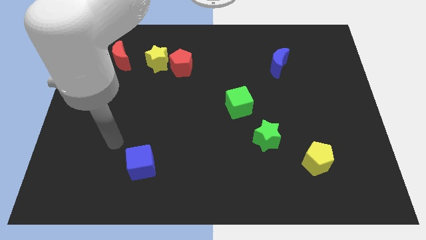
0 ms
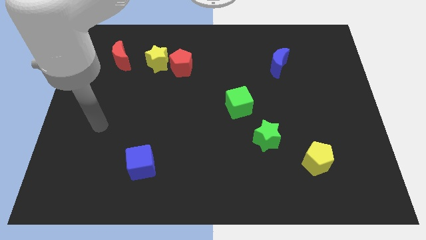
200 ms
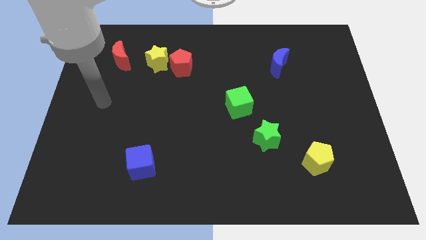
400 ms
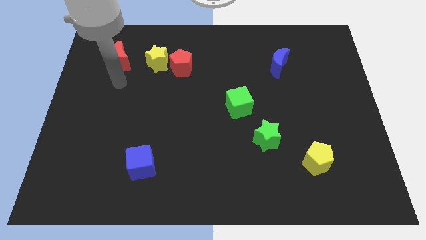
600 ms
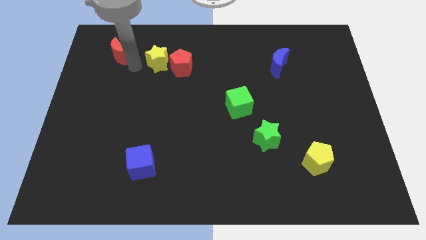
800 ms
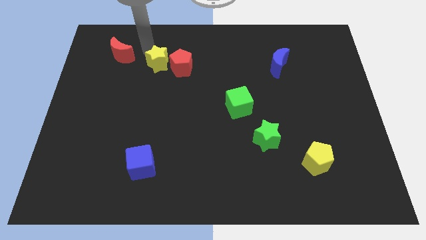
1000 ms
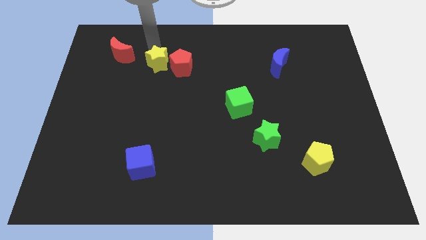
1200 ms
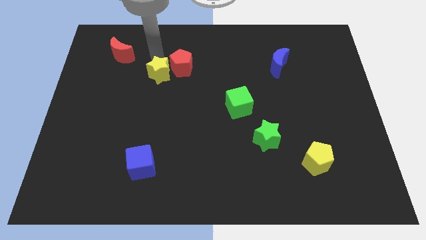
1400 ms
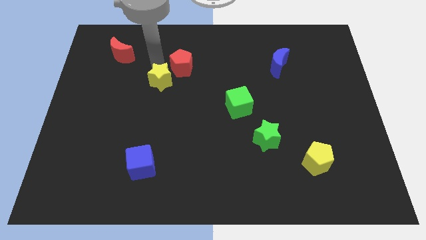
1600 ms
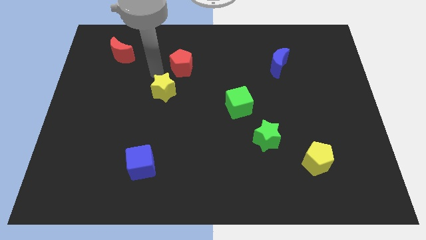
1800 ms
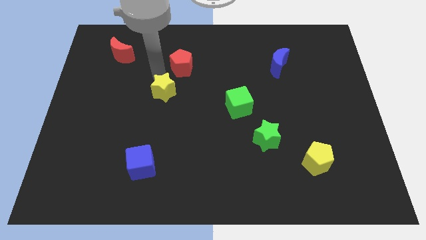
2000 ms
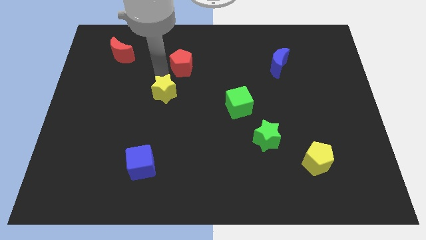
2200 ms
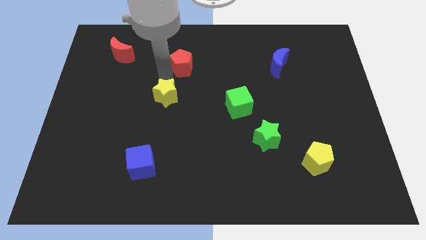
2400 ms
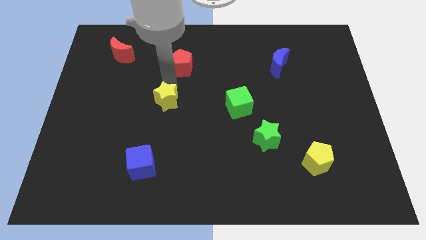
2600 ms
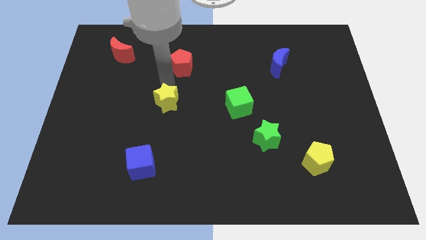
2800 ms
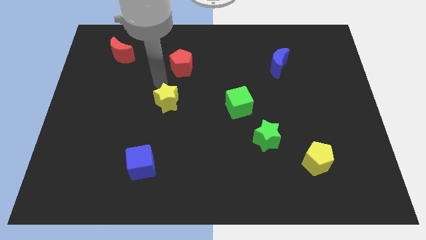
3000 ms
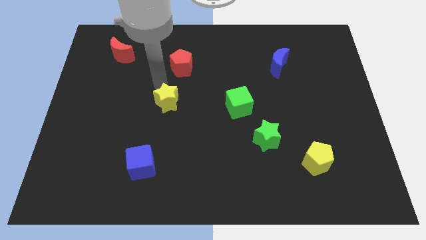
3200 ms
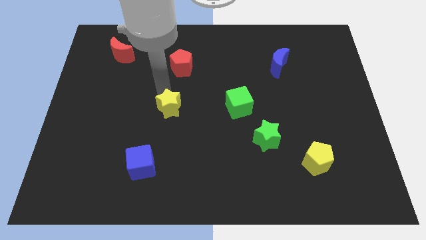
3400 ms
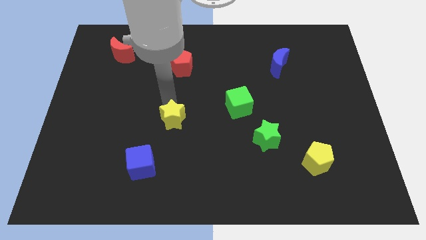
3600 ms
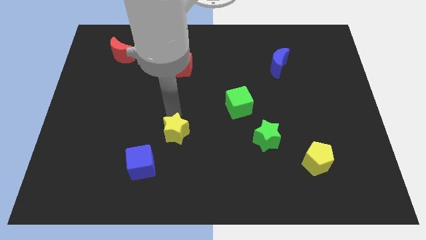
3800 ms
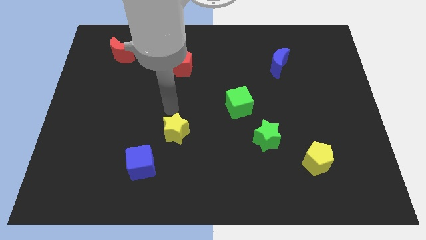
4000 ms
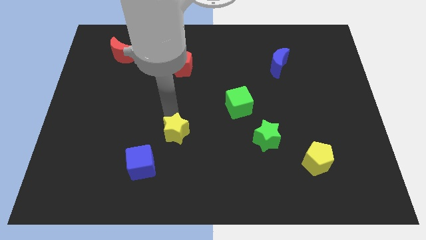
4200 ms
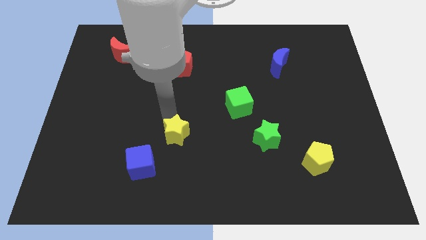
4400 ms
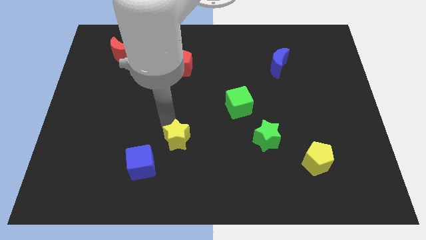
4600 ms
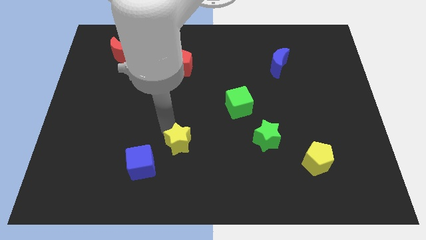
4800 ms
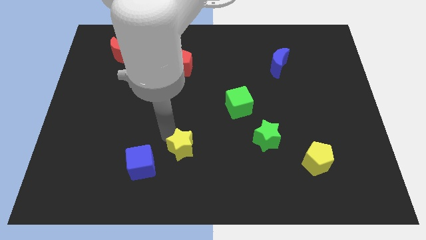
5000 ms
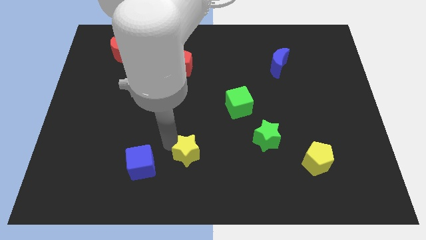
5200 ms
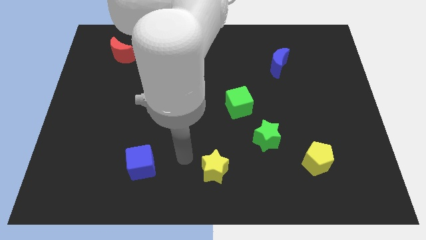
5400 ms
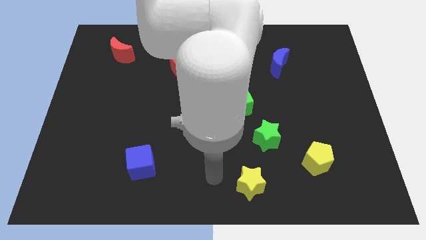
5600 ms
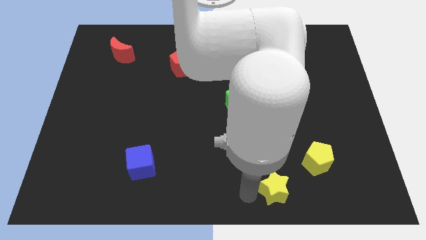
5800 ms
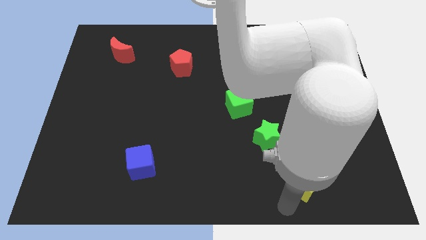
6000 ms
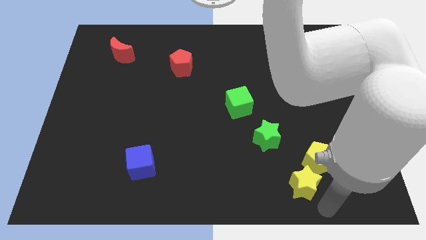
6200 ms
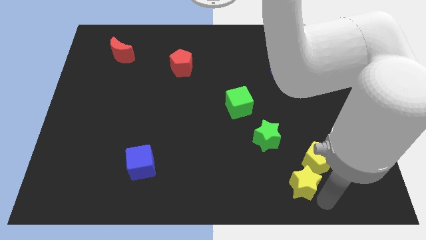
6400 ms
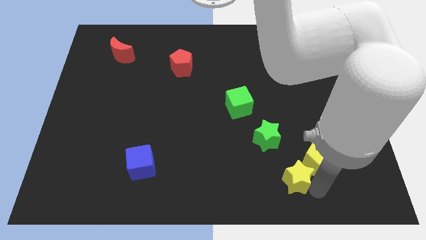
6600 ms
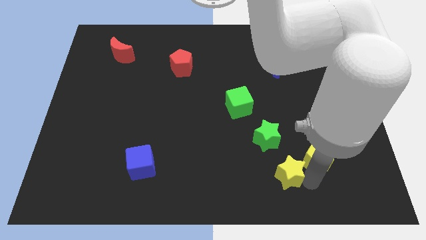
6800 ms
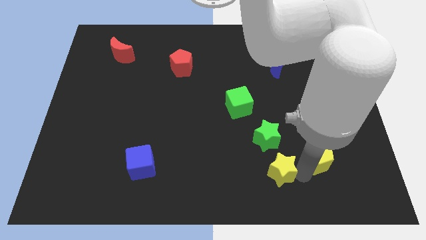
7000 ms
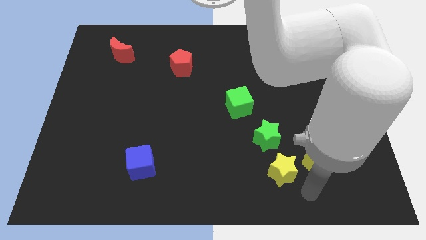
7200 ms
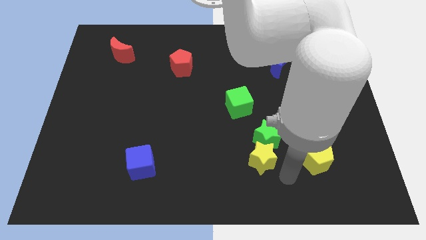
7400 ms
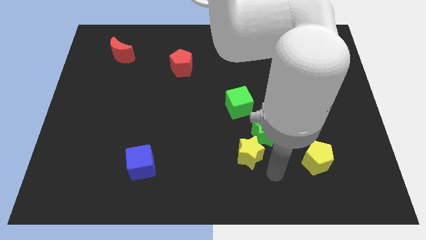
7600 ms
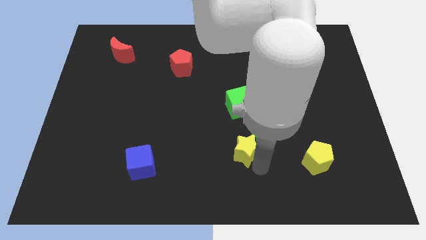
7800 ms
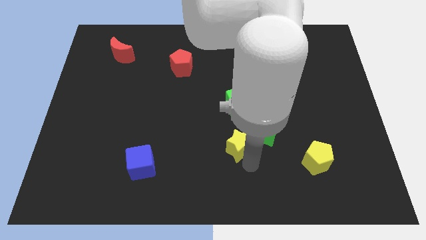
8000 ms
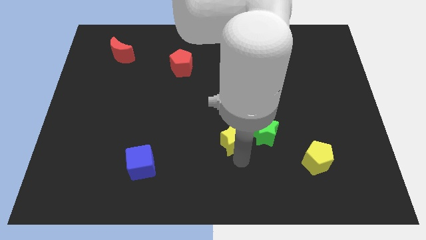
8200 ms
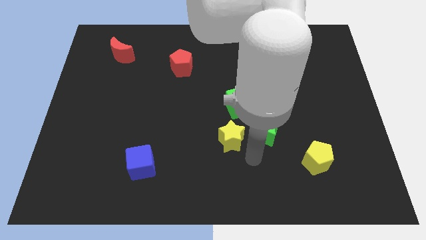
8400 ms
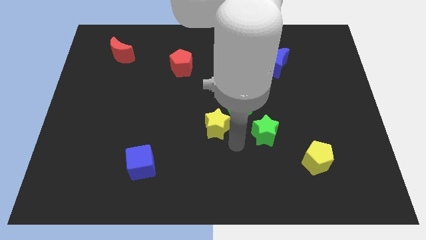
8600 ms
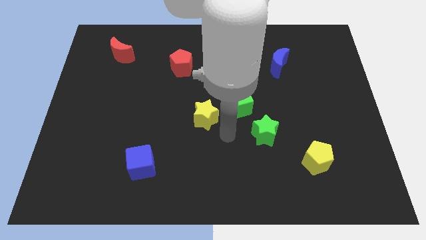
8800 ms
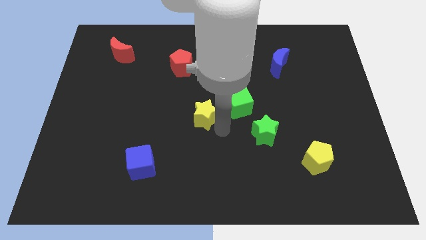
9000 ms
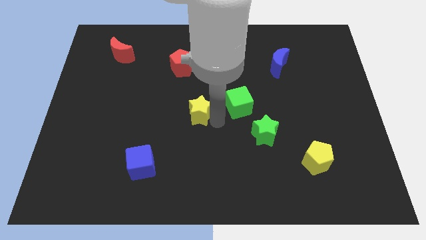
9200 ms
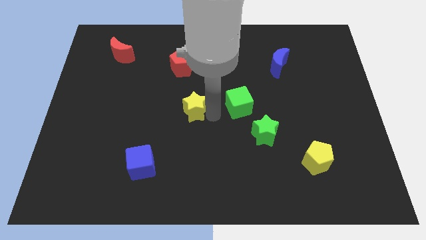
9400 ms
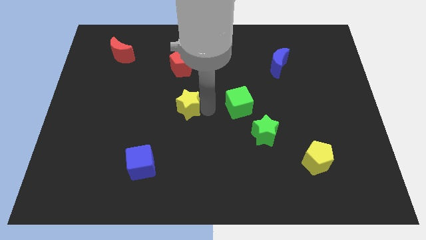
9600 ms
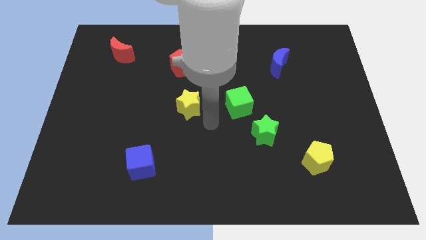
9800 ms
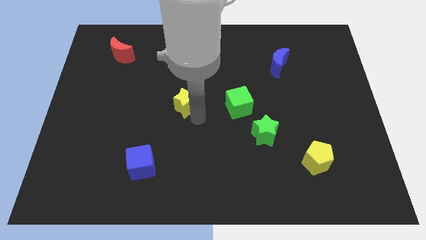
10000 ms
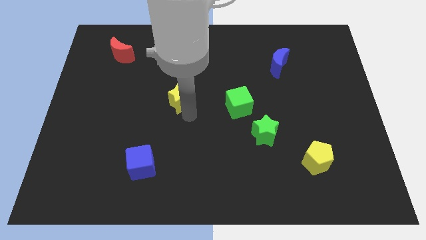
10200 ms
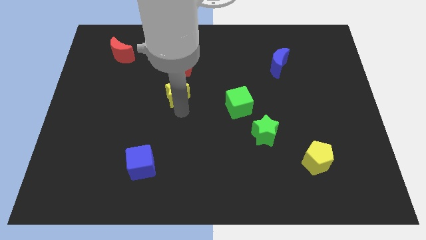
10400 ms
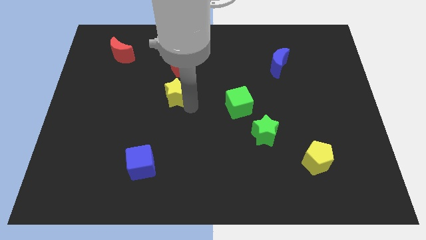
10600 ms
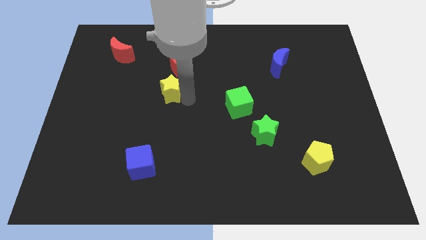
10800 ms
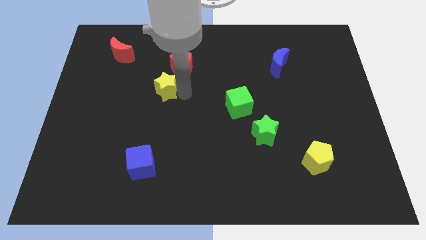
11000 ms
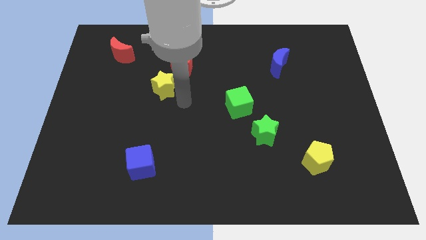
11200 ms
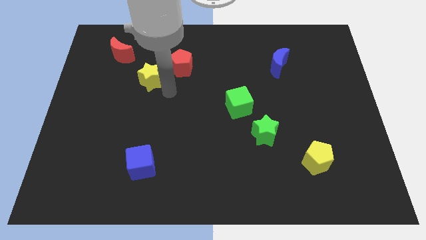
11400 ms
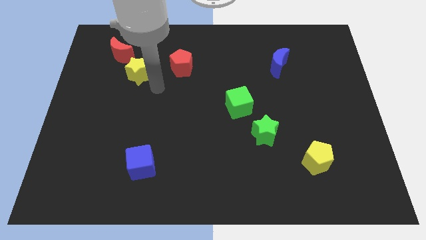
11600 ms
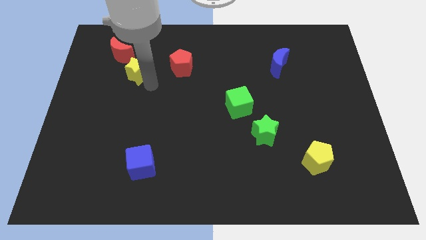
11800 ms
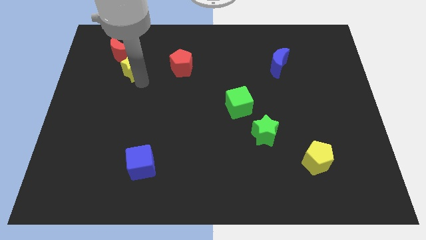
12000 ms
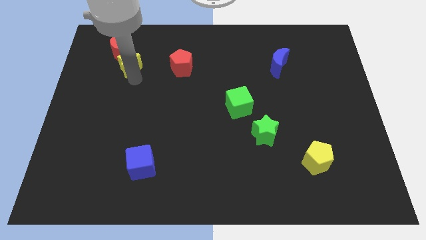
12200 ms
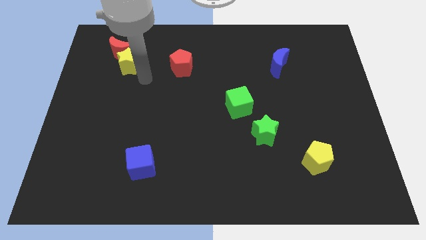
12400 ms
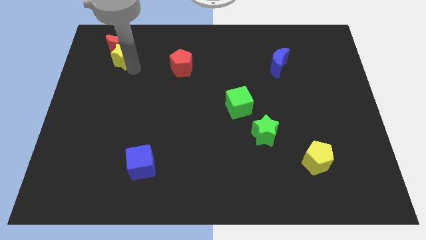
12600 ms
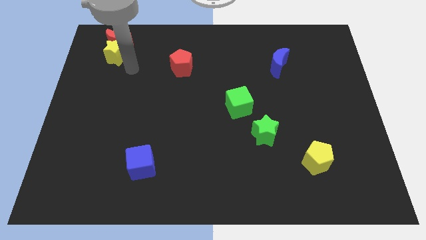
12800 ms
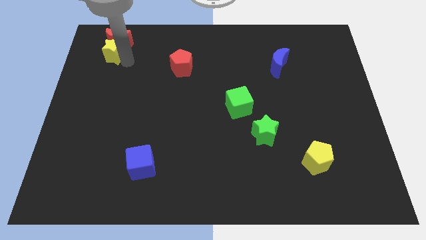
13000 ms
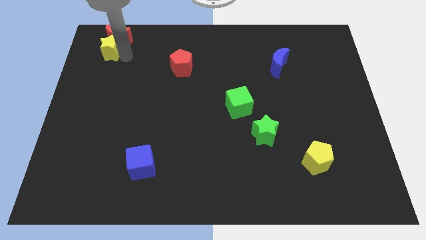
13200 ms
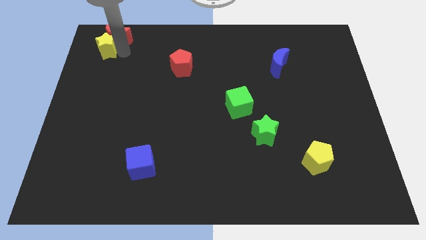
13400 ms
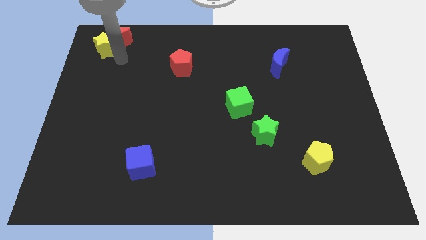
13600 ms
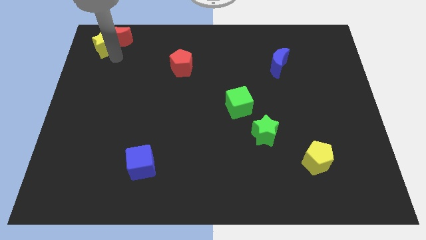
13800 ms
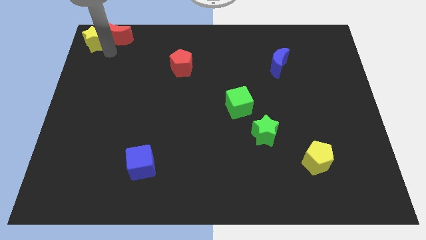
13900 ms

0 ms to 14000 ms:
push the yellow star to the top left

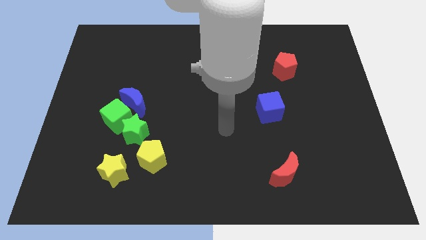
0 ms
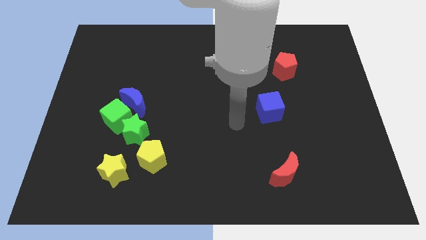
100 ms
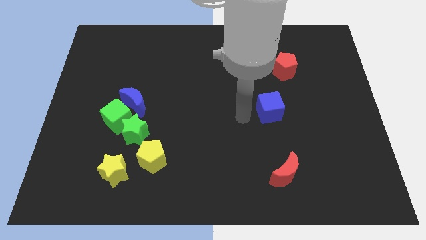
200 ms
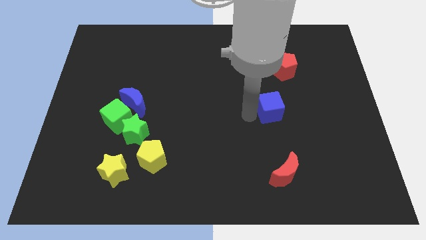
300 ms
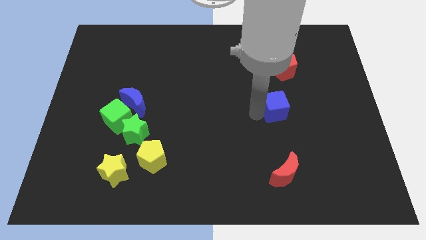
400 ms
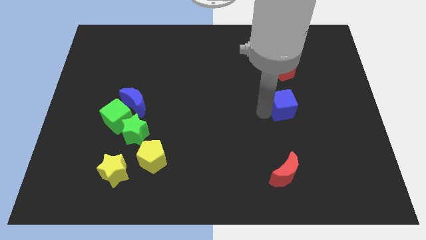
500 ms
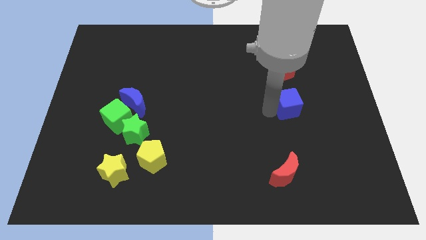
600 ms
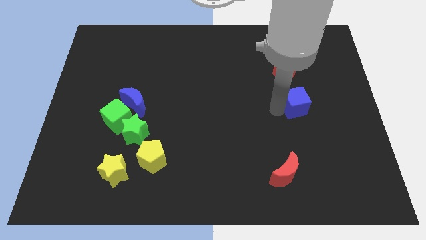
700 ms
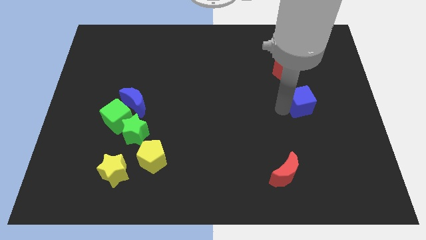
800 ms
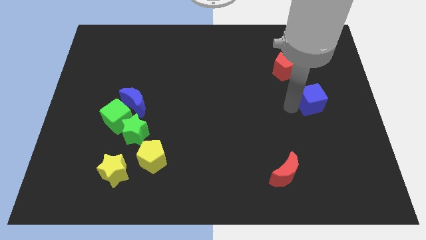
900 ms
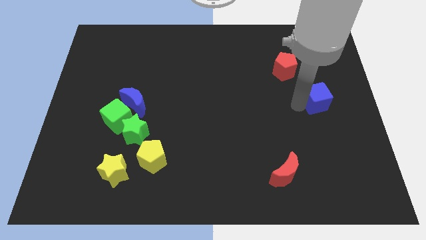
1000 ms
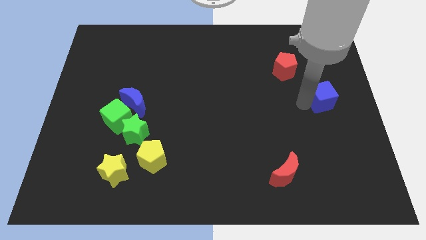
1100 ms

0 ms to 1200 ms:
slide the blue cube to the right side
